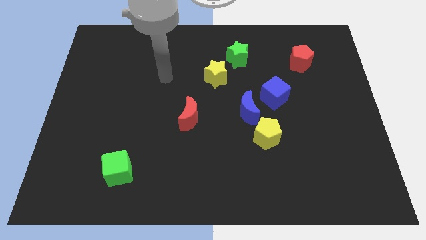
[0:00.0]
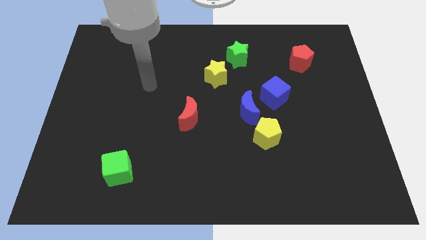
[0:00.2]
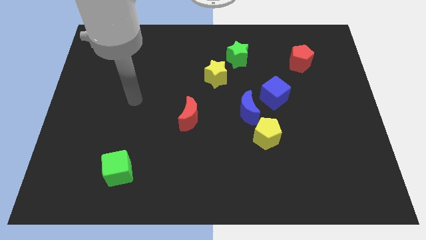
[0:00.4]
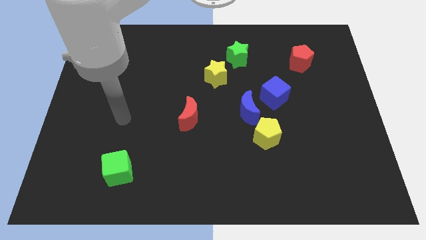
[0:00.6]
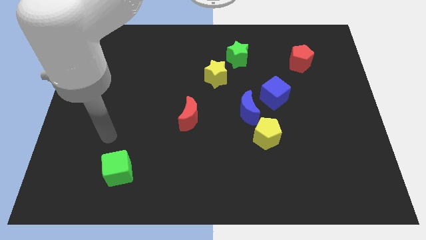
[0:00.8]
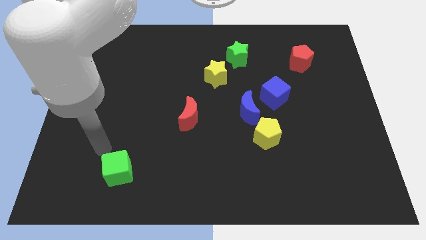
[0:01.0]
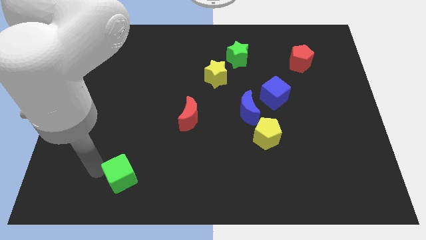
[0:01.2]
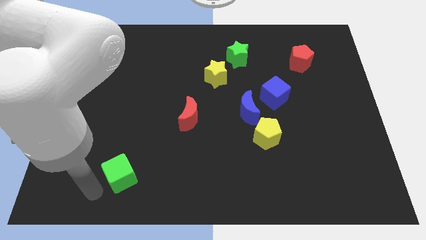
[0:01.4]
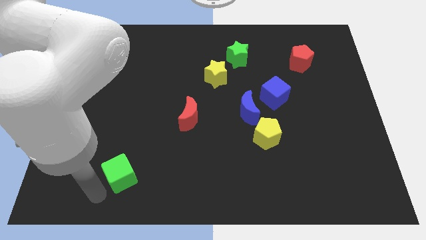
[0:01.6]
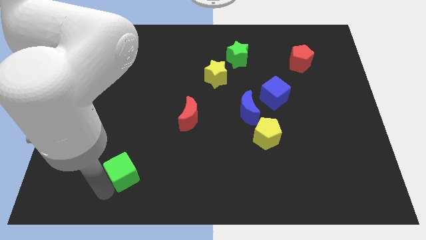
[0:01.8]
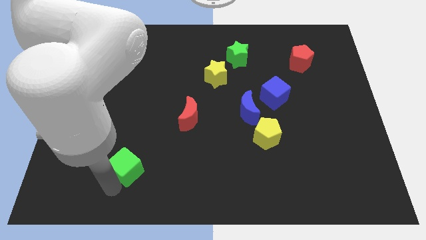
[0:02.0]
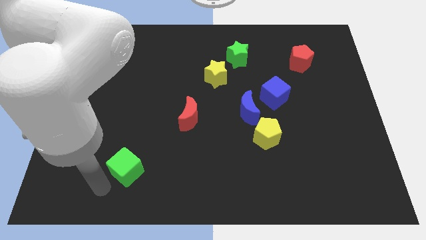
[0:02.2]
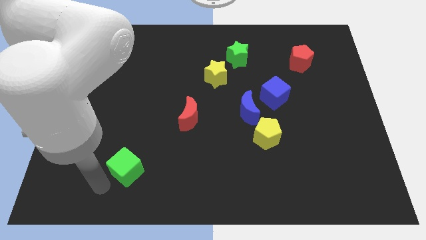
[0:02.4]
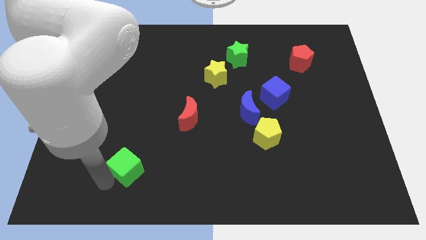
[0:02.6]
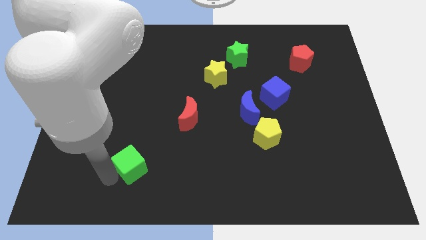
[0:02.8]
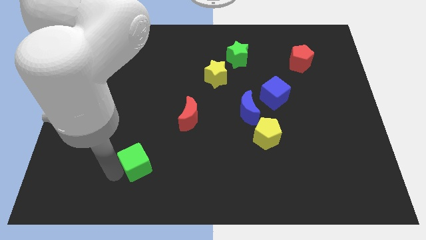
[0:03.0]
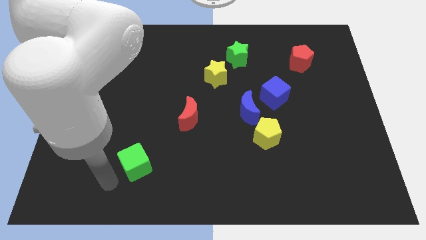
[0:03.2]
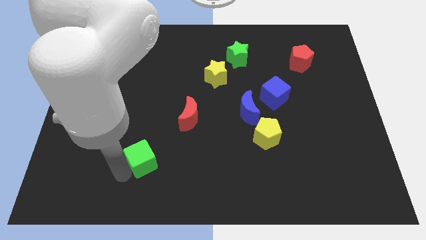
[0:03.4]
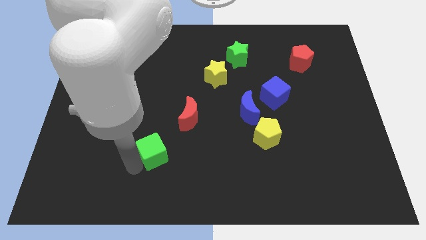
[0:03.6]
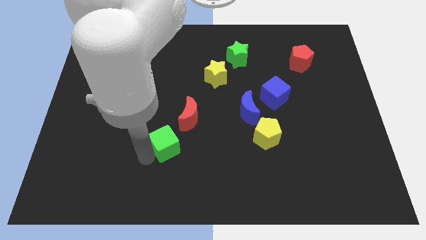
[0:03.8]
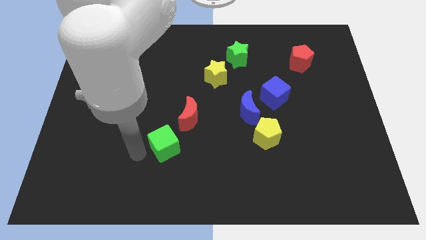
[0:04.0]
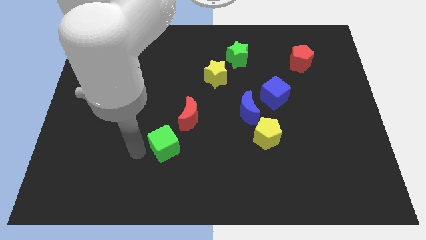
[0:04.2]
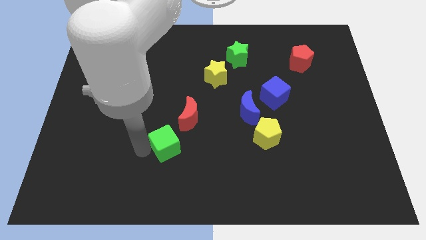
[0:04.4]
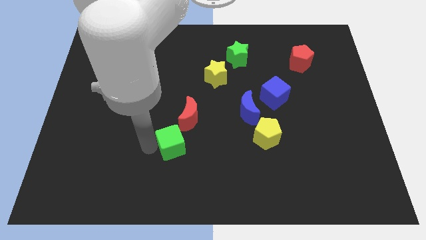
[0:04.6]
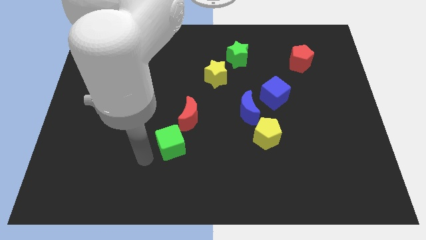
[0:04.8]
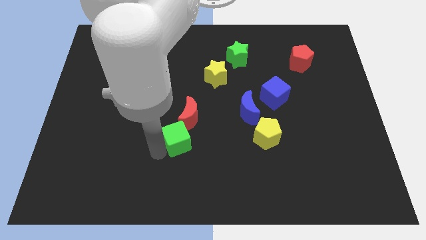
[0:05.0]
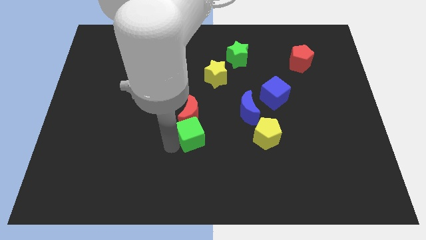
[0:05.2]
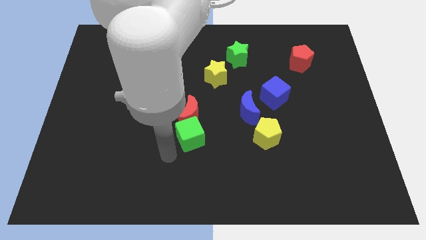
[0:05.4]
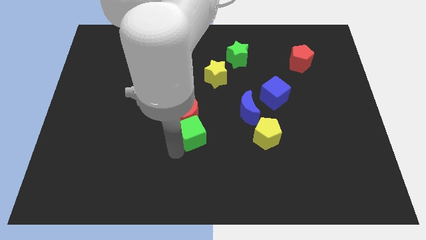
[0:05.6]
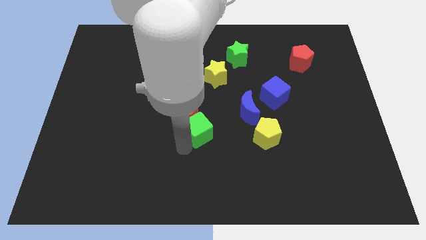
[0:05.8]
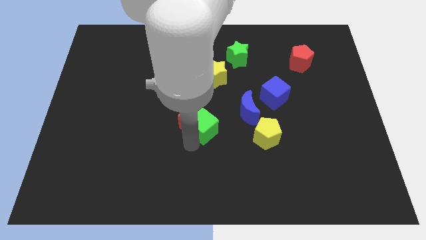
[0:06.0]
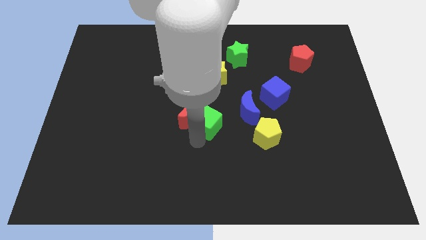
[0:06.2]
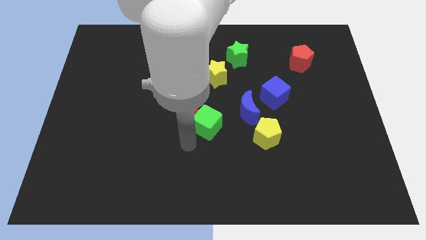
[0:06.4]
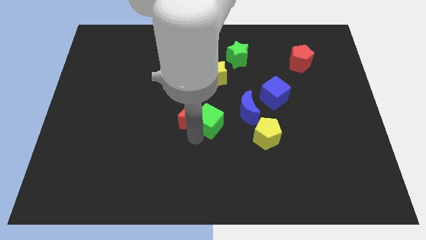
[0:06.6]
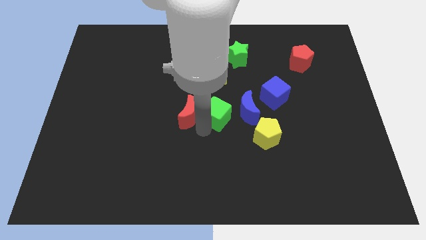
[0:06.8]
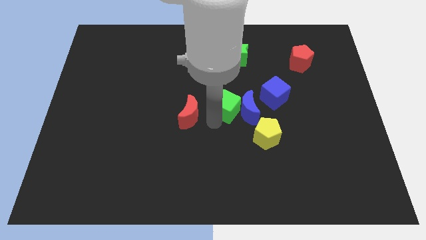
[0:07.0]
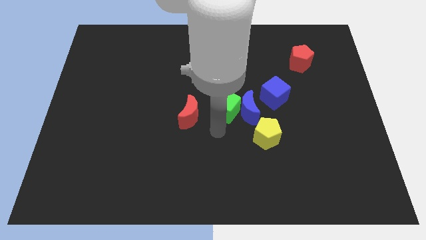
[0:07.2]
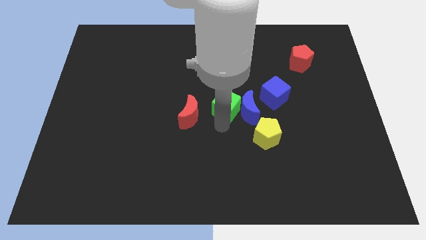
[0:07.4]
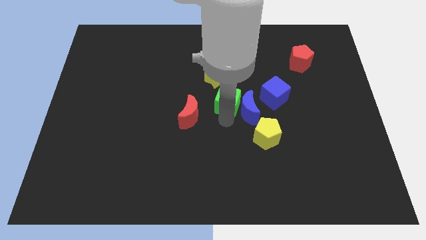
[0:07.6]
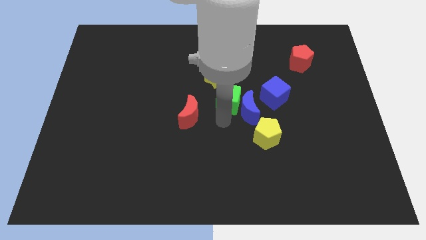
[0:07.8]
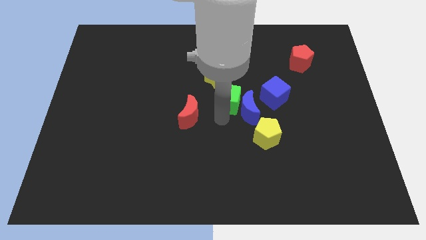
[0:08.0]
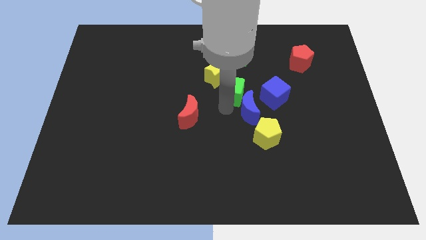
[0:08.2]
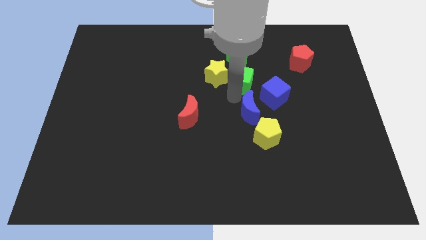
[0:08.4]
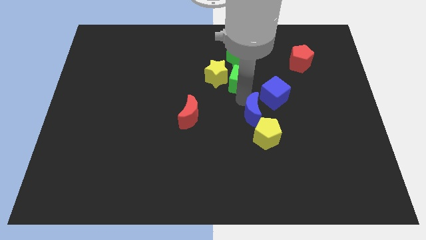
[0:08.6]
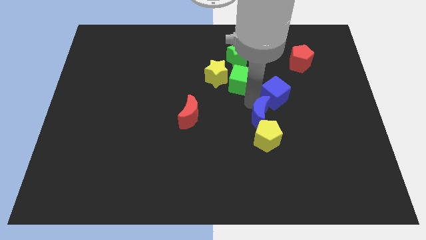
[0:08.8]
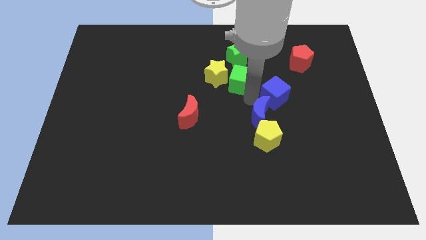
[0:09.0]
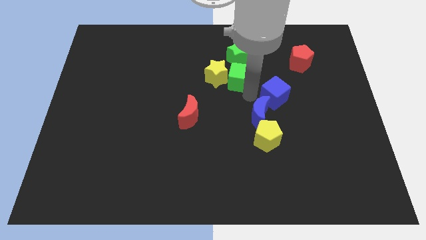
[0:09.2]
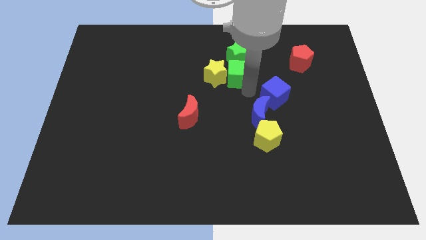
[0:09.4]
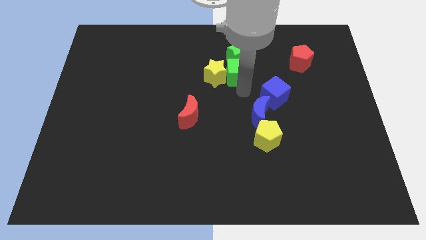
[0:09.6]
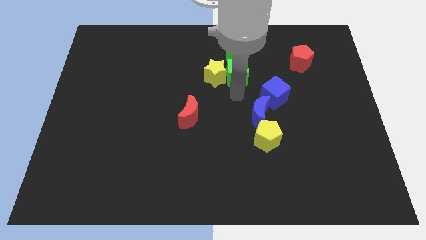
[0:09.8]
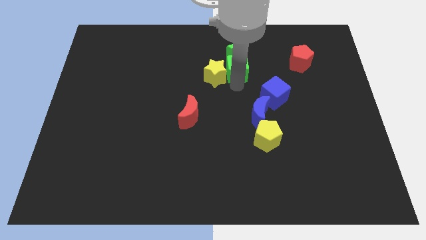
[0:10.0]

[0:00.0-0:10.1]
move the green cube towards the green star

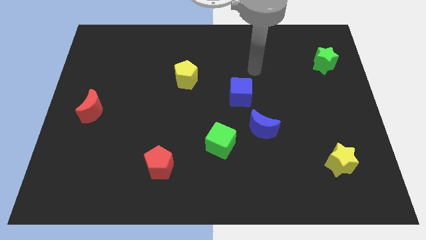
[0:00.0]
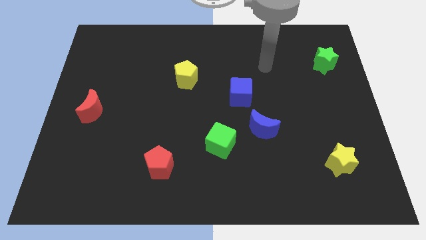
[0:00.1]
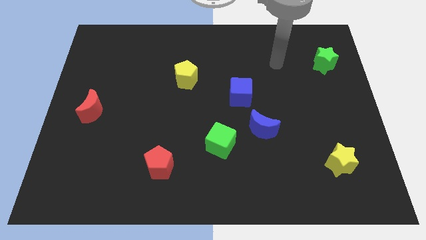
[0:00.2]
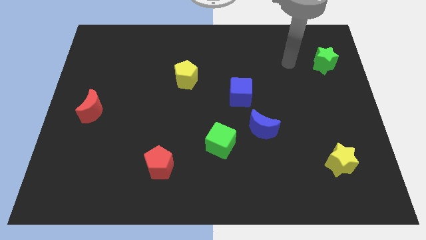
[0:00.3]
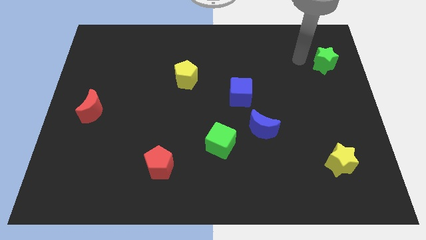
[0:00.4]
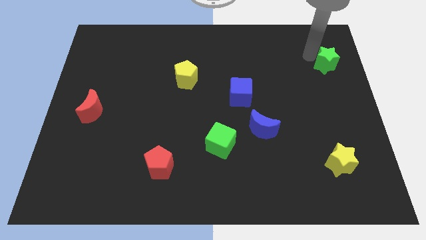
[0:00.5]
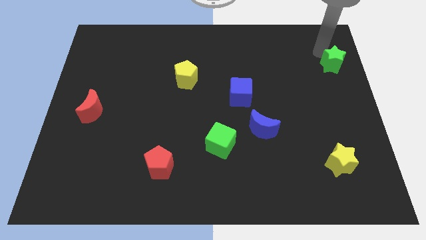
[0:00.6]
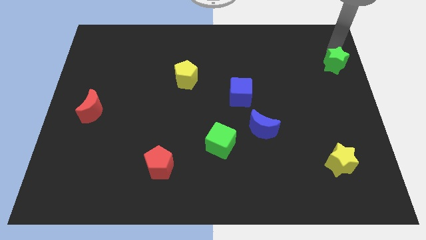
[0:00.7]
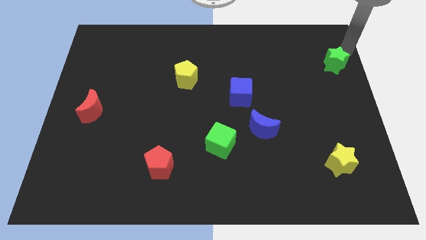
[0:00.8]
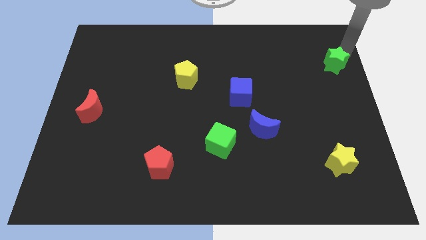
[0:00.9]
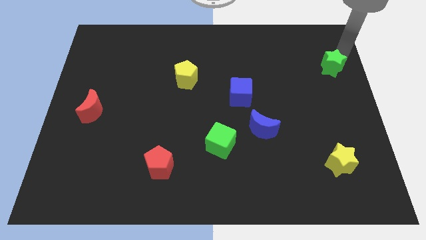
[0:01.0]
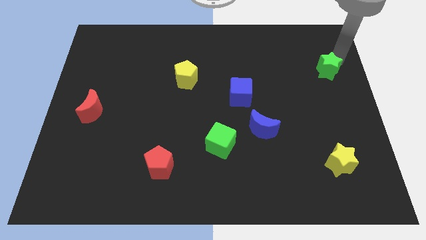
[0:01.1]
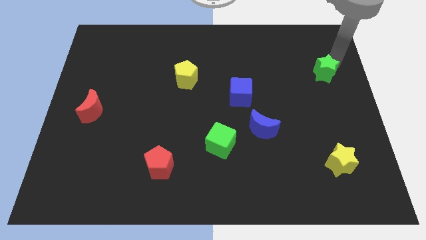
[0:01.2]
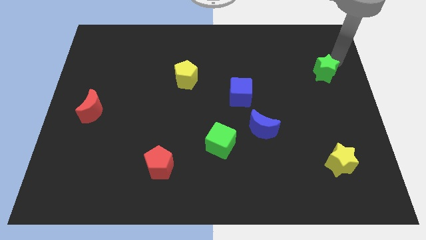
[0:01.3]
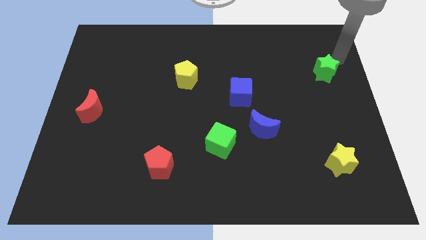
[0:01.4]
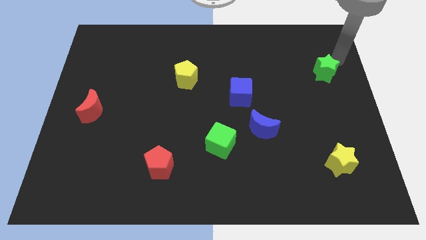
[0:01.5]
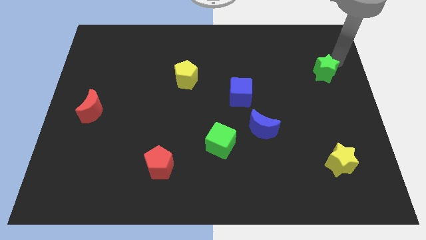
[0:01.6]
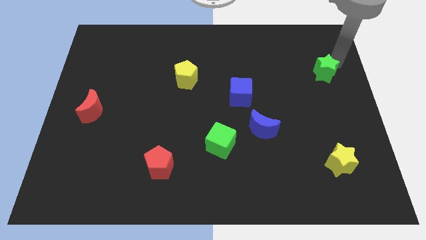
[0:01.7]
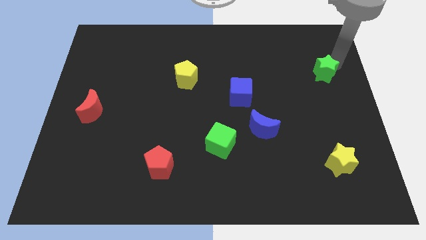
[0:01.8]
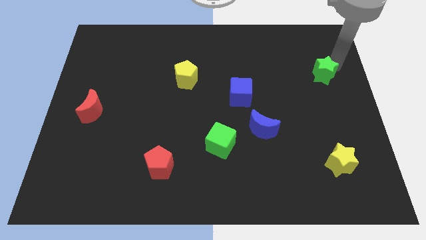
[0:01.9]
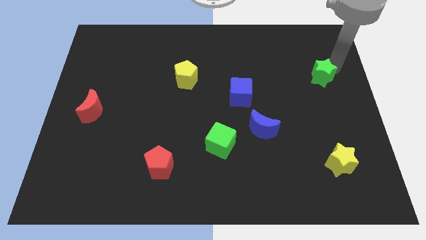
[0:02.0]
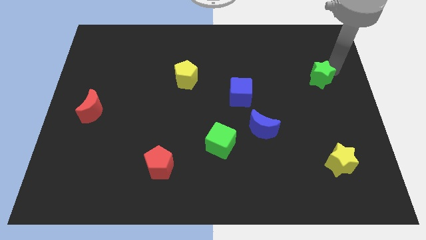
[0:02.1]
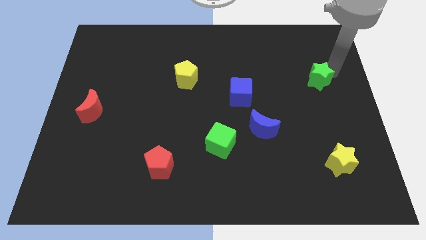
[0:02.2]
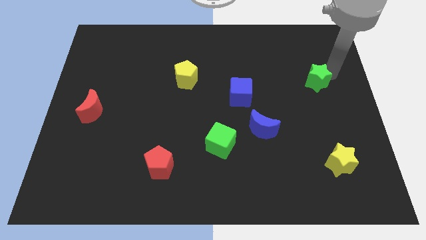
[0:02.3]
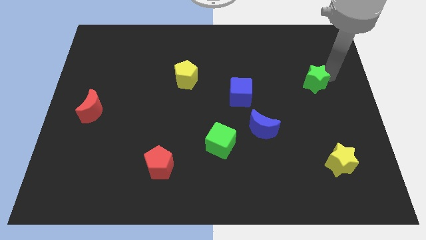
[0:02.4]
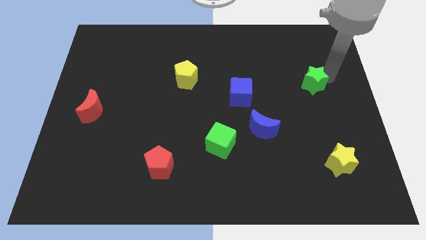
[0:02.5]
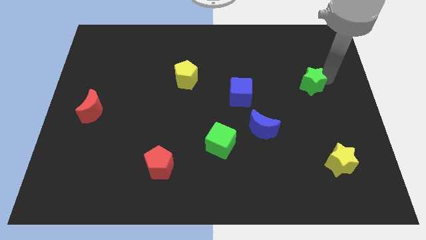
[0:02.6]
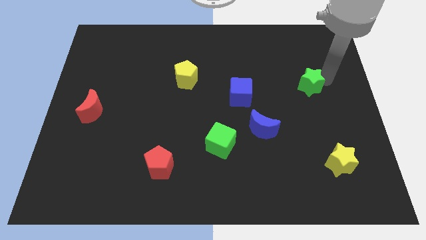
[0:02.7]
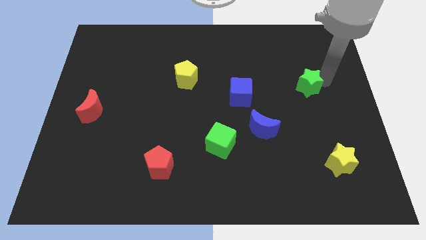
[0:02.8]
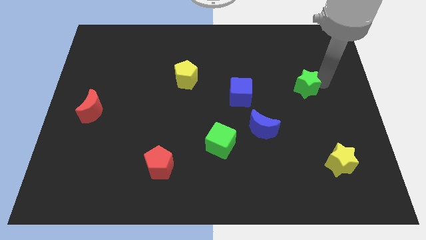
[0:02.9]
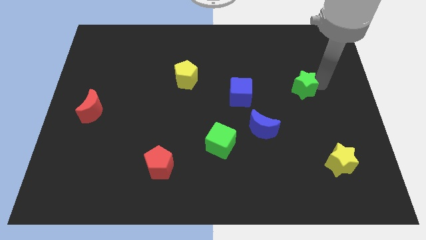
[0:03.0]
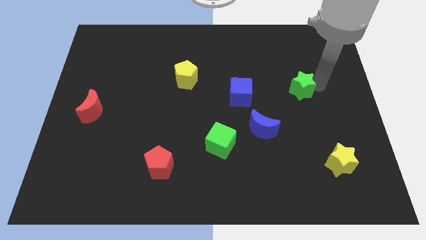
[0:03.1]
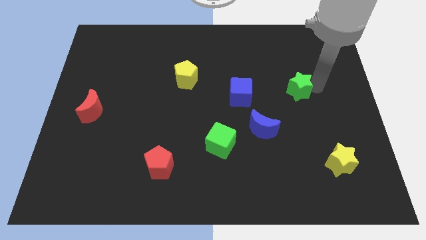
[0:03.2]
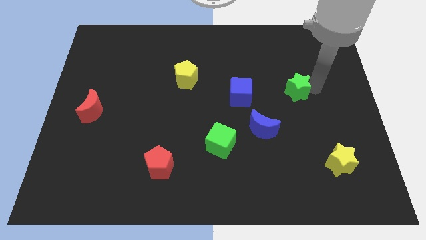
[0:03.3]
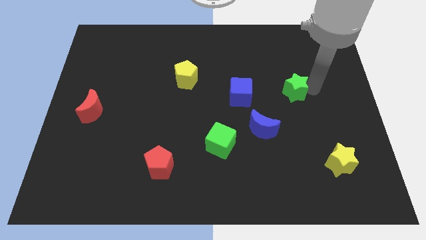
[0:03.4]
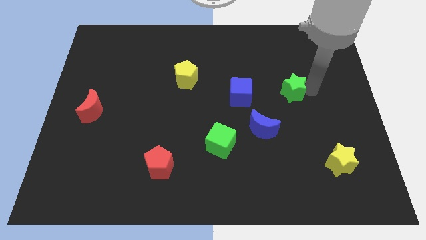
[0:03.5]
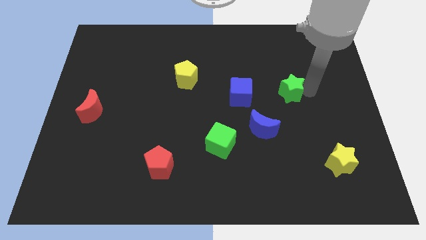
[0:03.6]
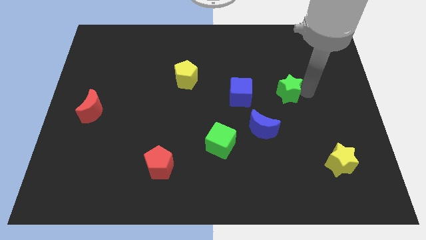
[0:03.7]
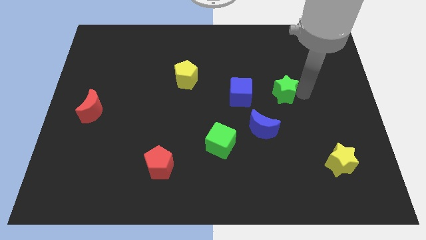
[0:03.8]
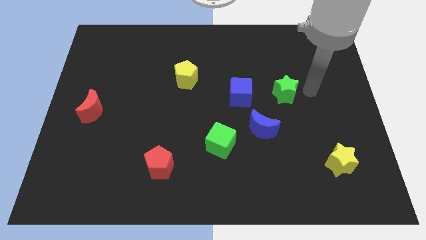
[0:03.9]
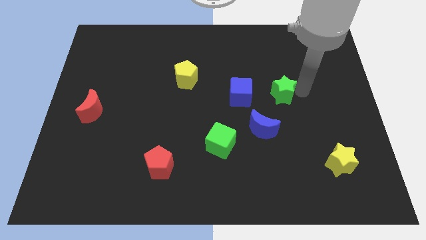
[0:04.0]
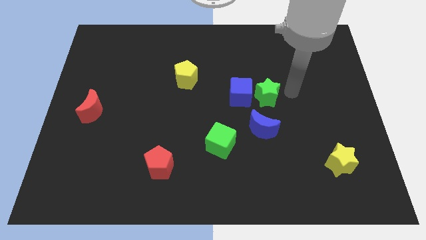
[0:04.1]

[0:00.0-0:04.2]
push the green star close to the blue cube
